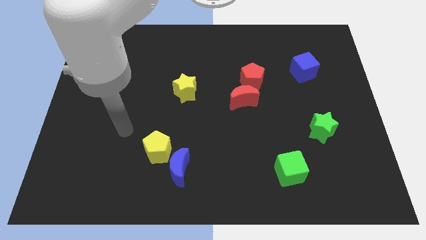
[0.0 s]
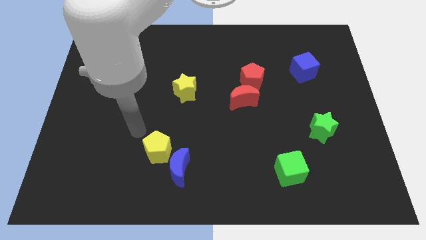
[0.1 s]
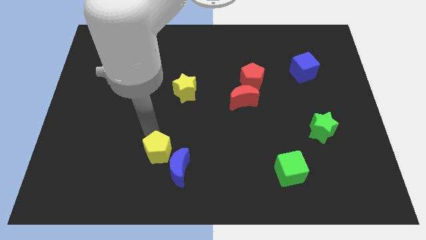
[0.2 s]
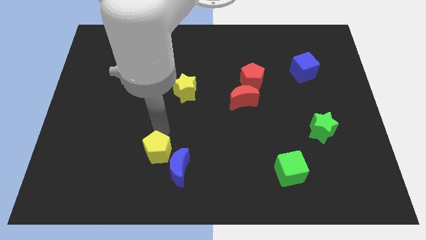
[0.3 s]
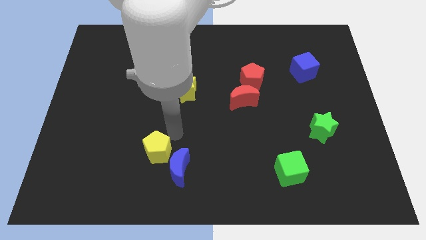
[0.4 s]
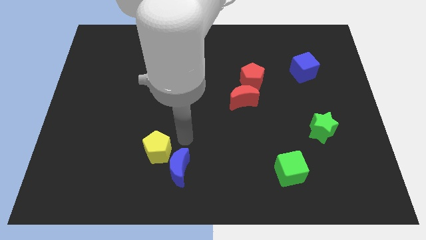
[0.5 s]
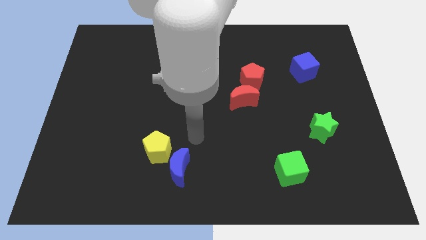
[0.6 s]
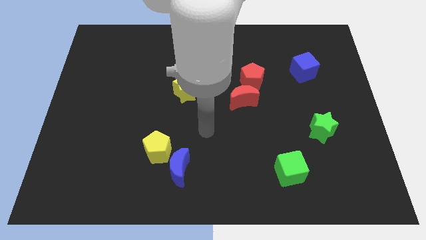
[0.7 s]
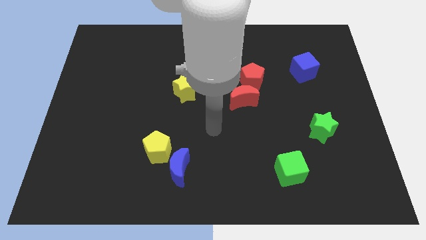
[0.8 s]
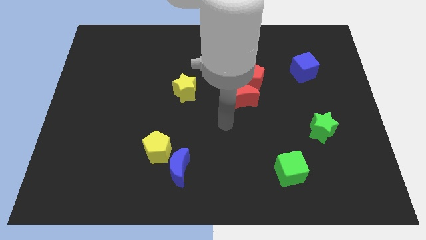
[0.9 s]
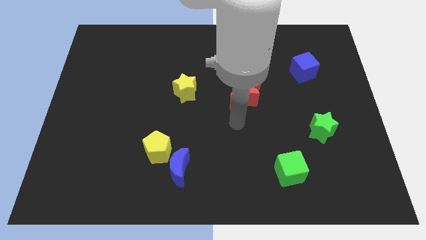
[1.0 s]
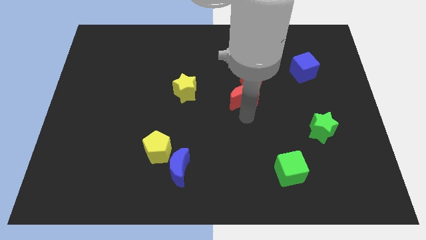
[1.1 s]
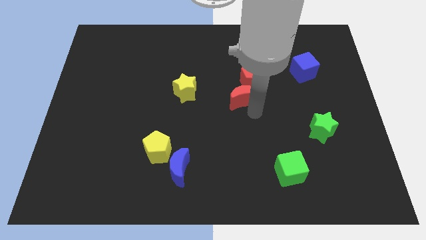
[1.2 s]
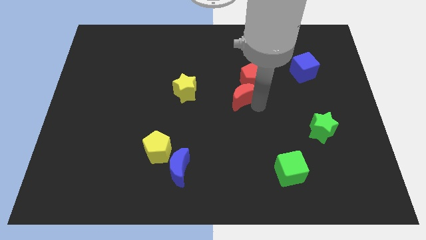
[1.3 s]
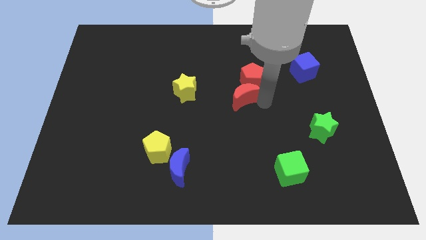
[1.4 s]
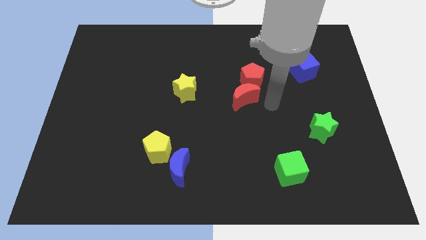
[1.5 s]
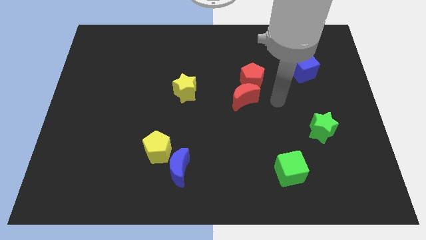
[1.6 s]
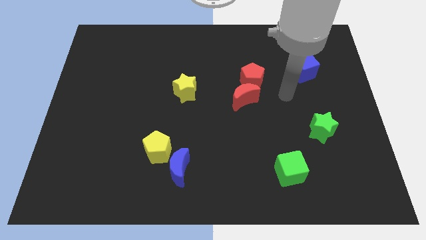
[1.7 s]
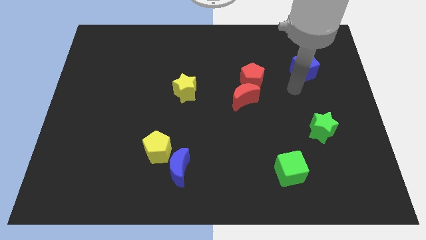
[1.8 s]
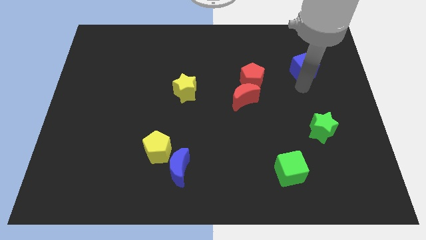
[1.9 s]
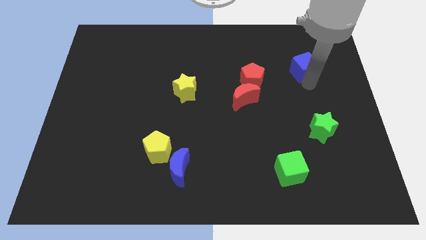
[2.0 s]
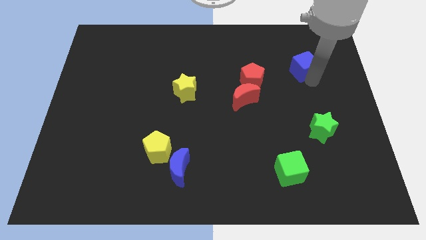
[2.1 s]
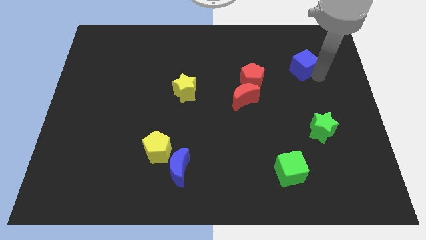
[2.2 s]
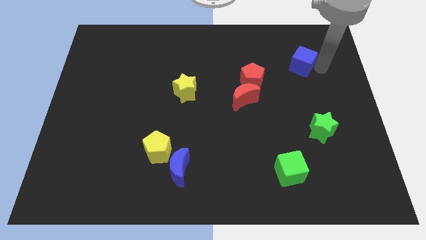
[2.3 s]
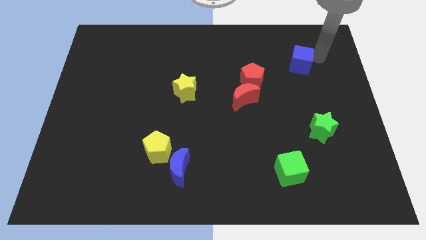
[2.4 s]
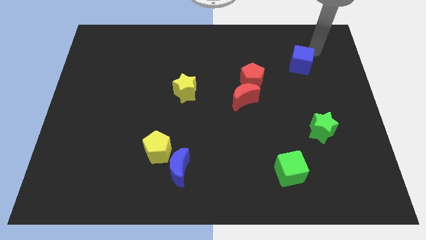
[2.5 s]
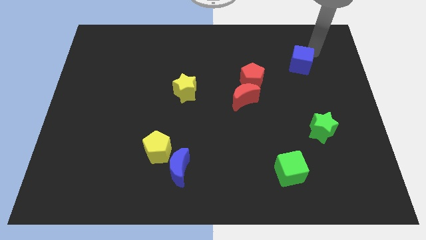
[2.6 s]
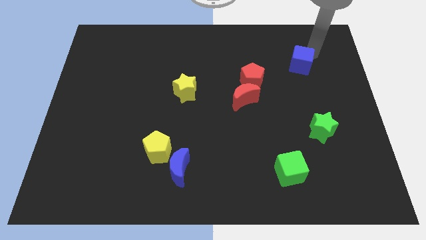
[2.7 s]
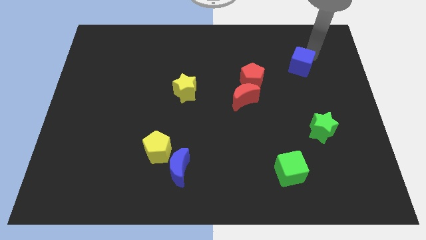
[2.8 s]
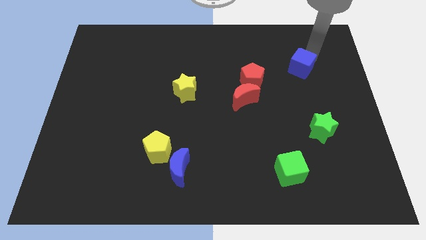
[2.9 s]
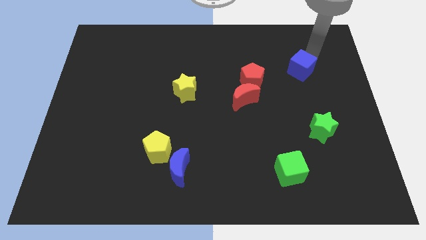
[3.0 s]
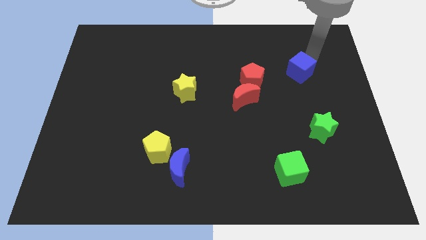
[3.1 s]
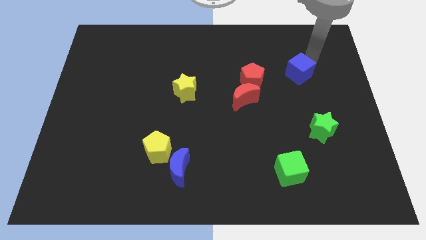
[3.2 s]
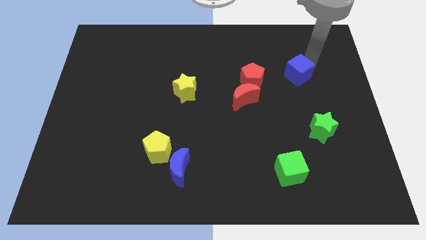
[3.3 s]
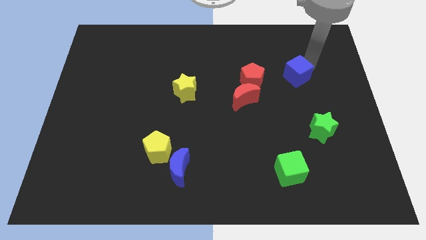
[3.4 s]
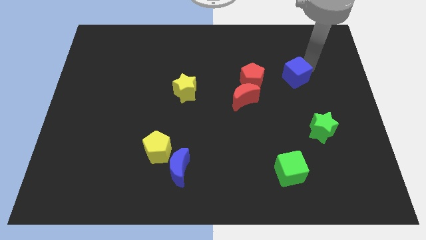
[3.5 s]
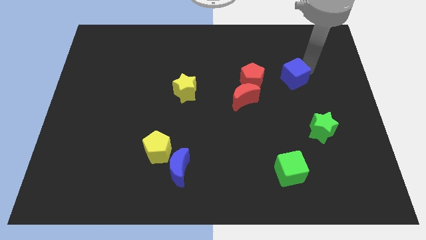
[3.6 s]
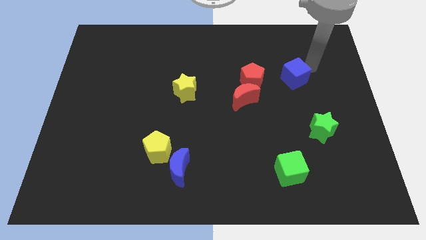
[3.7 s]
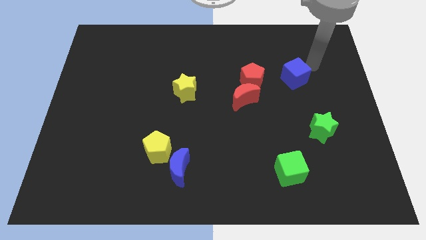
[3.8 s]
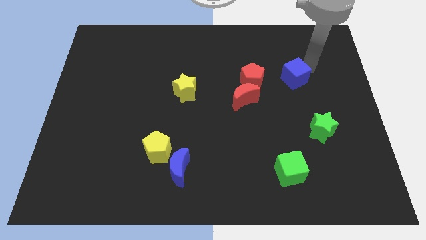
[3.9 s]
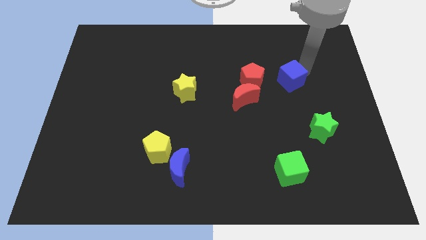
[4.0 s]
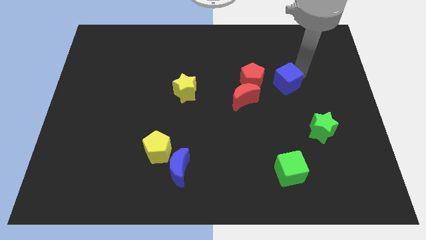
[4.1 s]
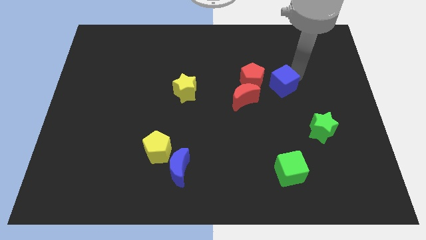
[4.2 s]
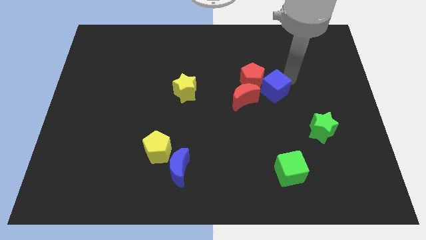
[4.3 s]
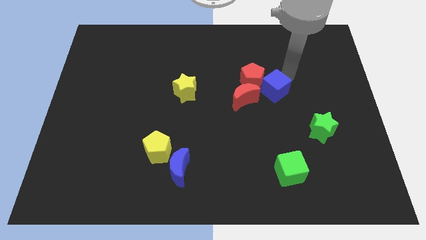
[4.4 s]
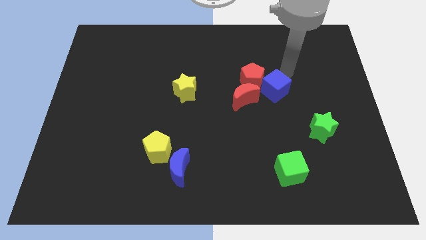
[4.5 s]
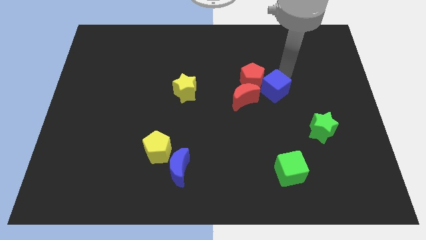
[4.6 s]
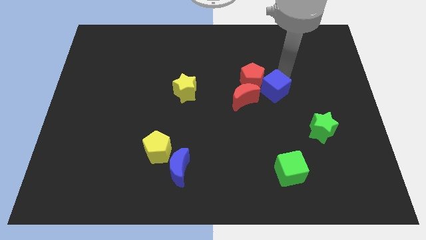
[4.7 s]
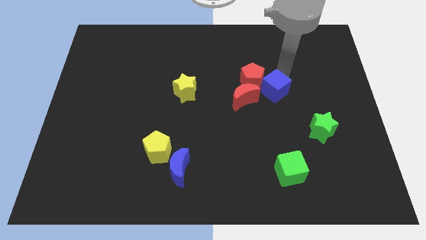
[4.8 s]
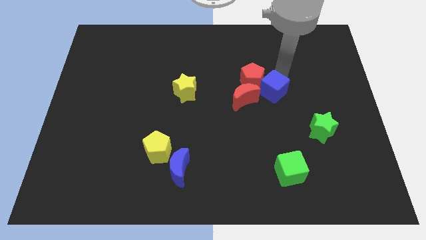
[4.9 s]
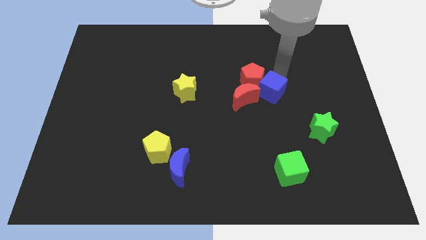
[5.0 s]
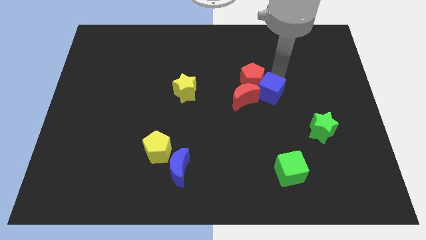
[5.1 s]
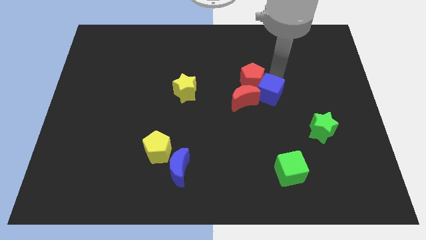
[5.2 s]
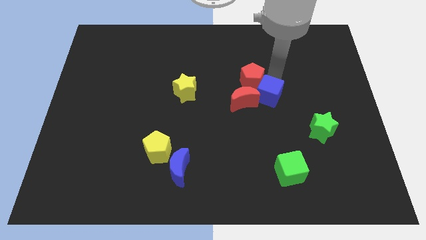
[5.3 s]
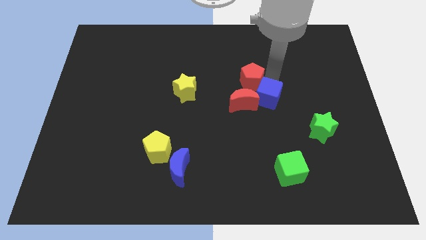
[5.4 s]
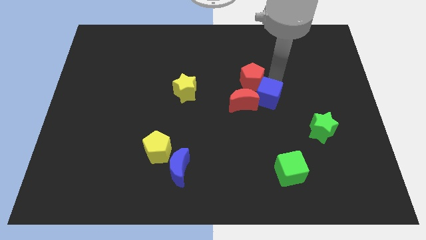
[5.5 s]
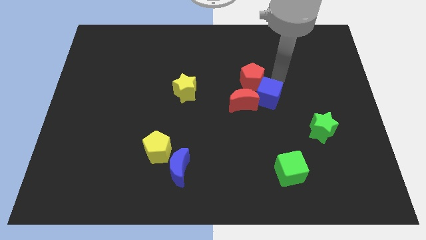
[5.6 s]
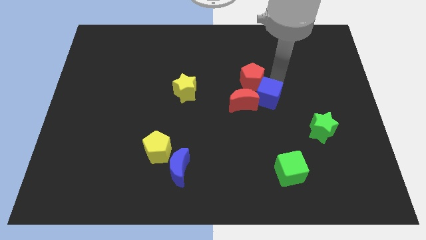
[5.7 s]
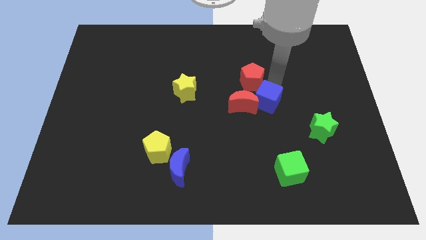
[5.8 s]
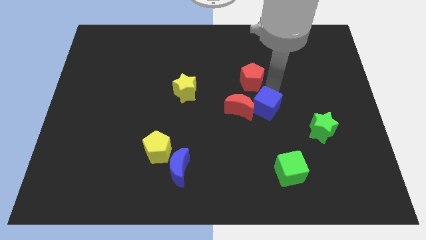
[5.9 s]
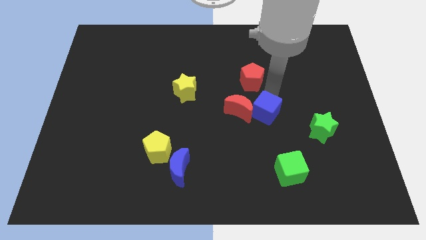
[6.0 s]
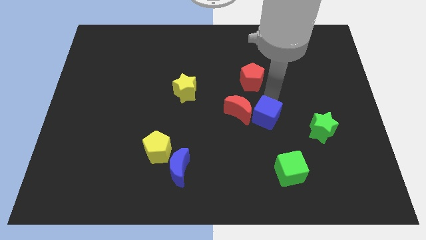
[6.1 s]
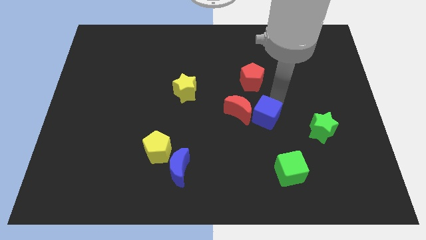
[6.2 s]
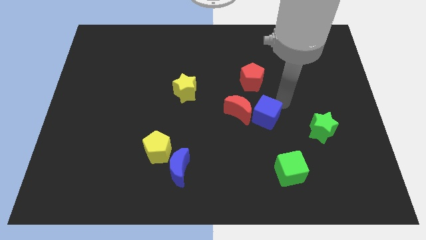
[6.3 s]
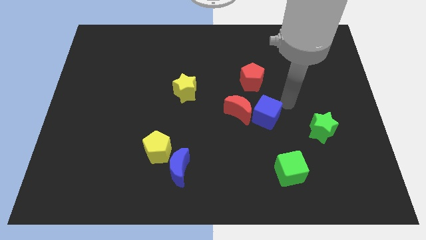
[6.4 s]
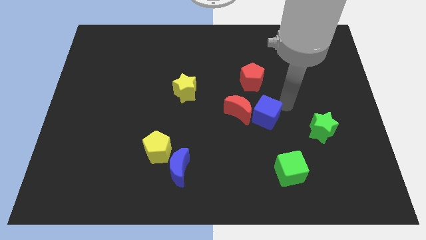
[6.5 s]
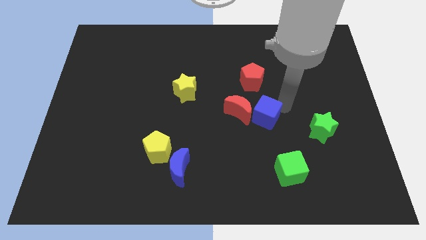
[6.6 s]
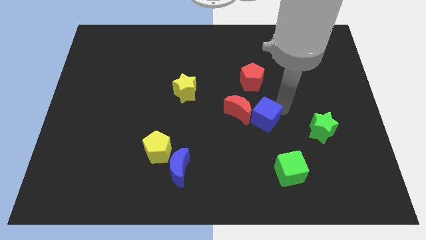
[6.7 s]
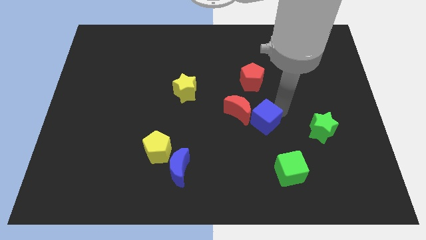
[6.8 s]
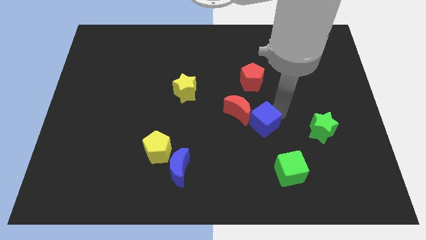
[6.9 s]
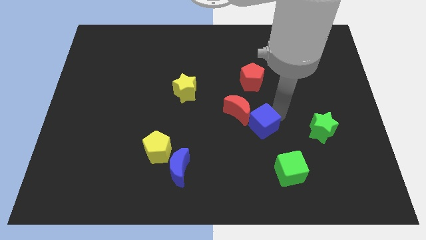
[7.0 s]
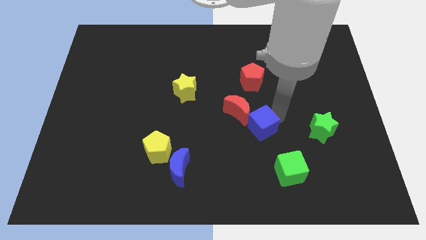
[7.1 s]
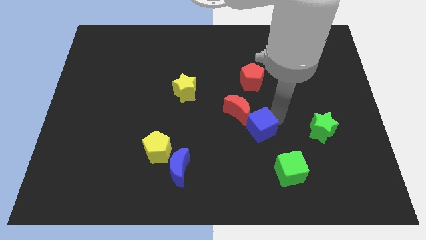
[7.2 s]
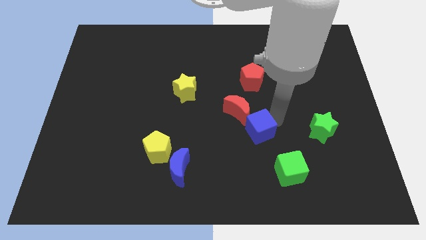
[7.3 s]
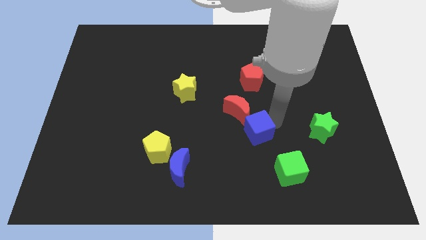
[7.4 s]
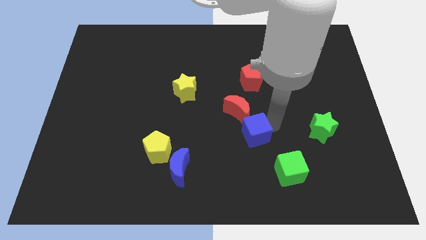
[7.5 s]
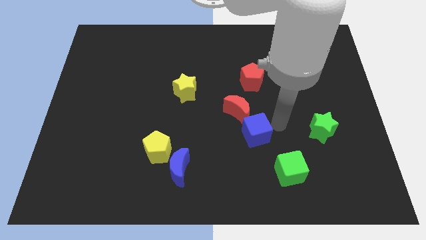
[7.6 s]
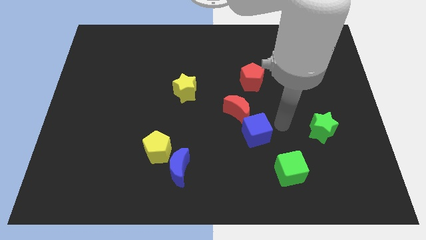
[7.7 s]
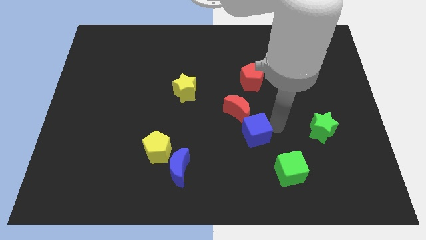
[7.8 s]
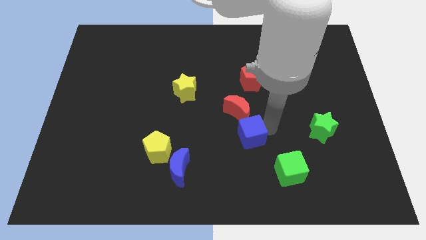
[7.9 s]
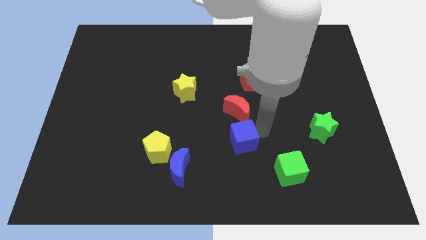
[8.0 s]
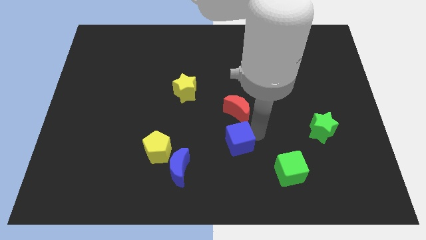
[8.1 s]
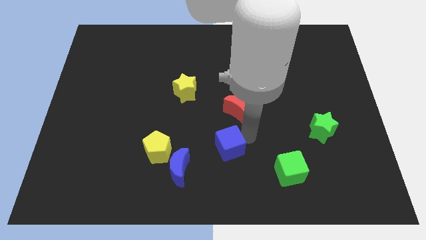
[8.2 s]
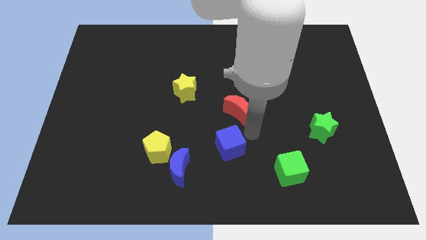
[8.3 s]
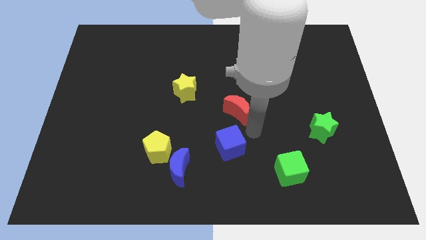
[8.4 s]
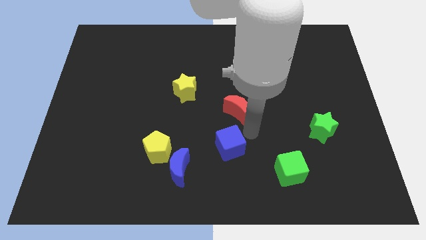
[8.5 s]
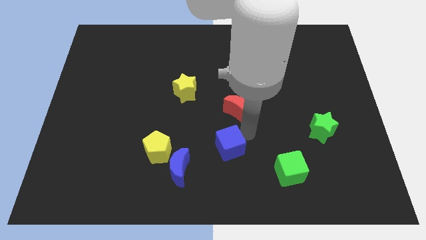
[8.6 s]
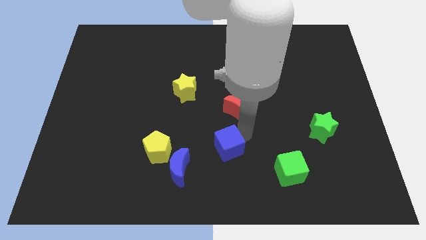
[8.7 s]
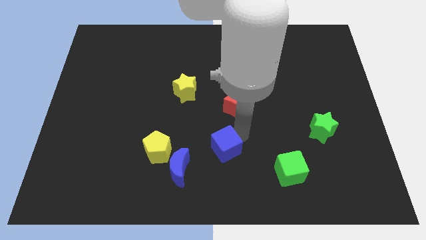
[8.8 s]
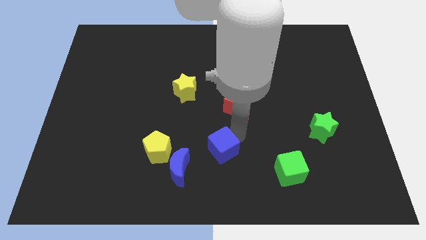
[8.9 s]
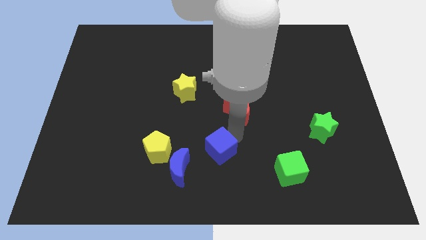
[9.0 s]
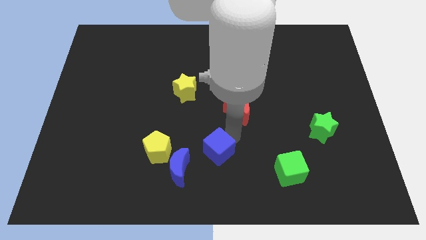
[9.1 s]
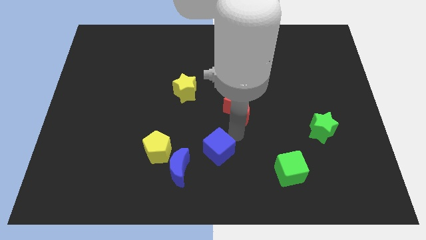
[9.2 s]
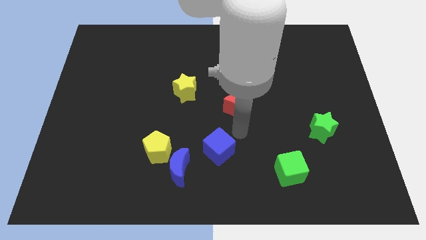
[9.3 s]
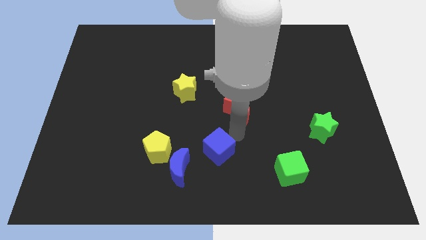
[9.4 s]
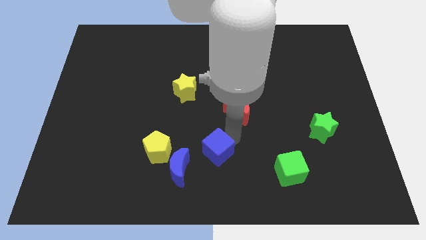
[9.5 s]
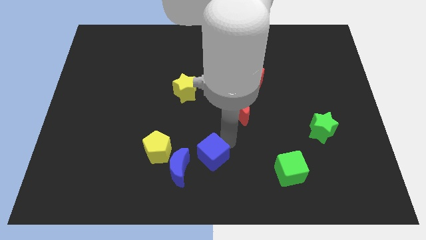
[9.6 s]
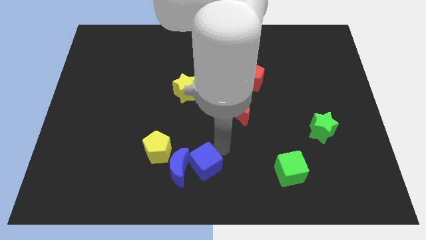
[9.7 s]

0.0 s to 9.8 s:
move the blue cube to the blue moon
